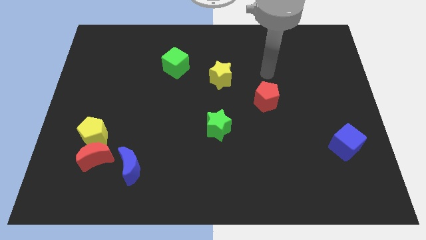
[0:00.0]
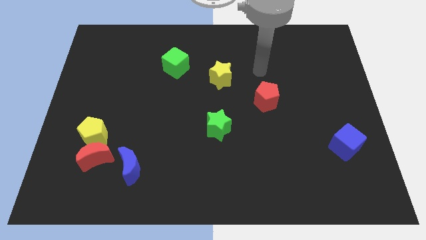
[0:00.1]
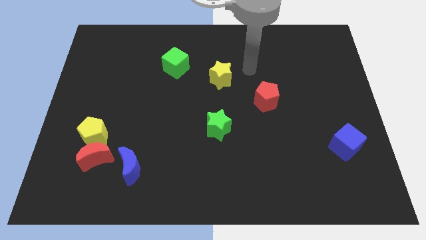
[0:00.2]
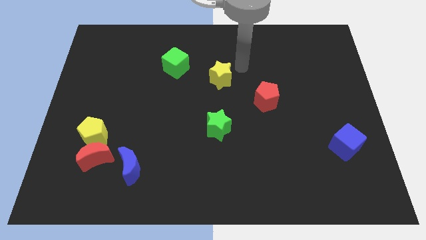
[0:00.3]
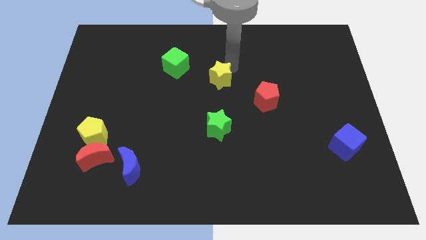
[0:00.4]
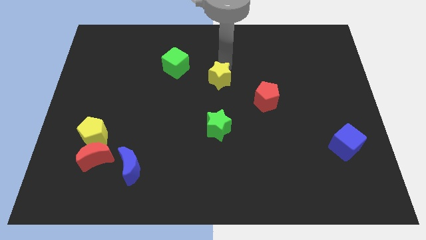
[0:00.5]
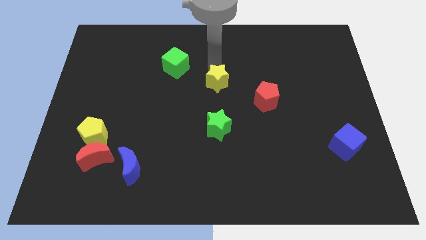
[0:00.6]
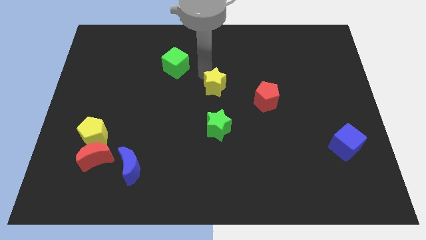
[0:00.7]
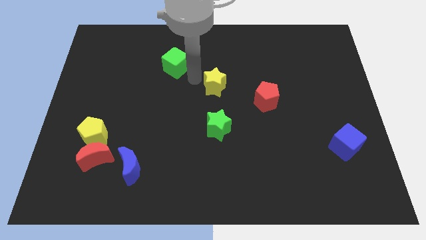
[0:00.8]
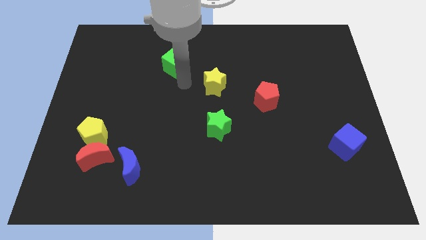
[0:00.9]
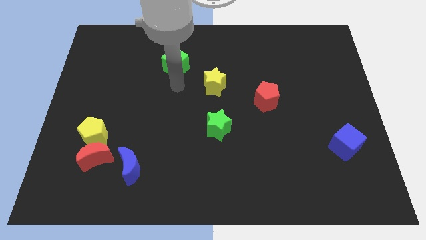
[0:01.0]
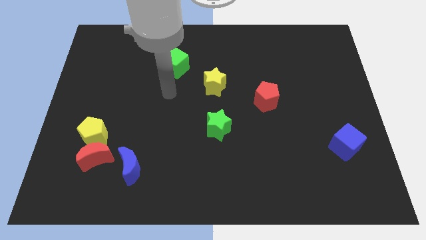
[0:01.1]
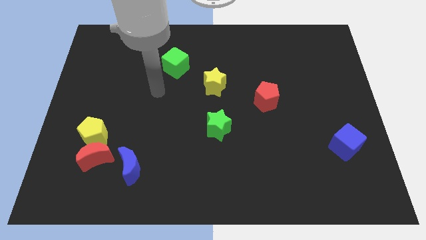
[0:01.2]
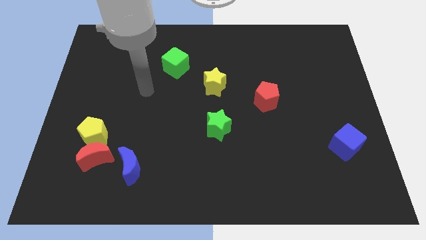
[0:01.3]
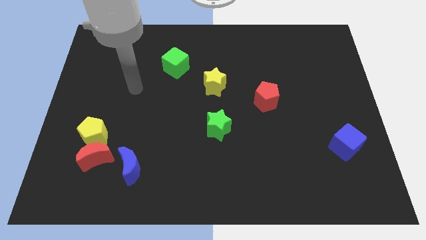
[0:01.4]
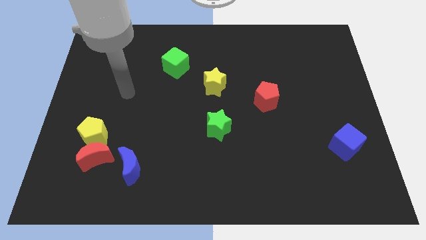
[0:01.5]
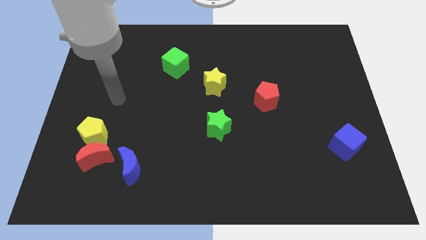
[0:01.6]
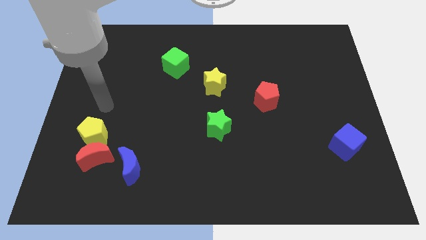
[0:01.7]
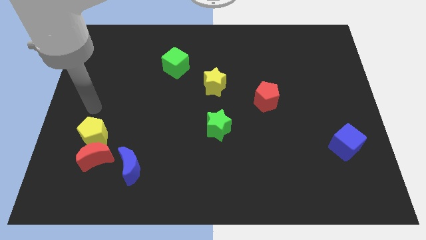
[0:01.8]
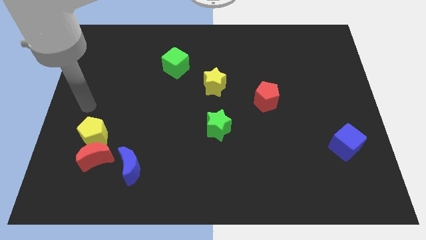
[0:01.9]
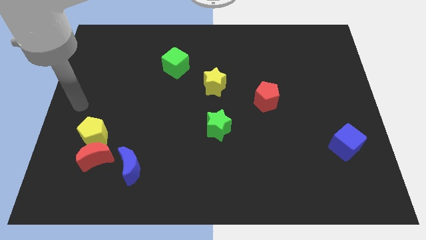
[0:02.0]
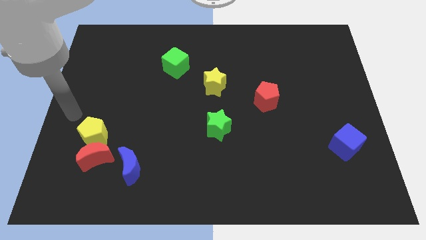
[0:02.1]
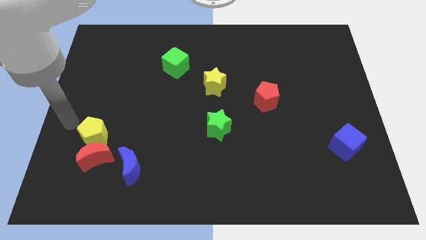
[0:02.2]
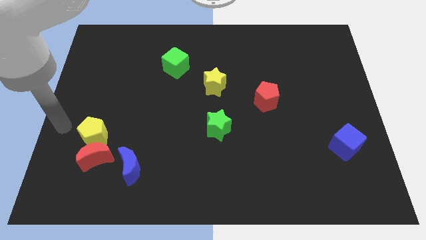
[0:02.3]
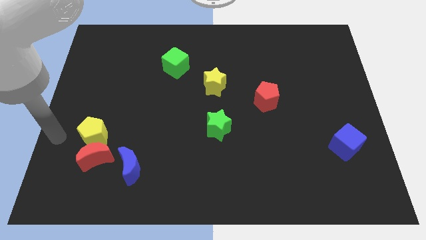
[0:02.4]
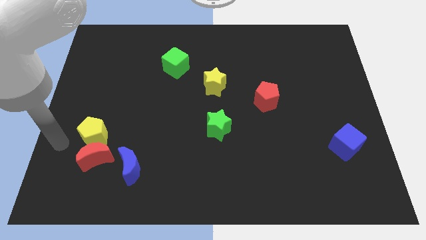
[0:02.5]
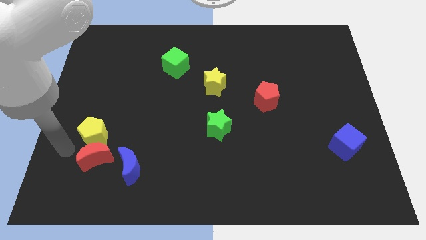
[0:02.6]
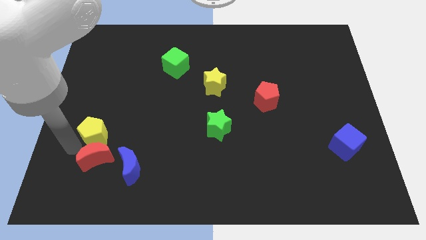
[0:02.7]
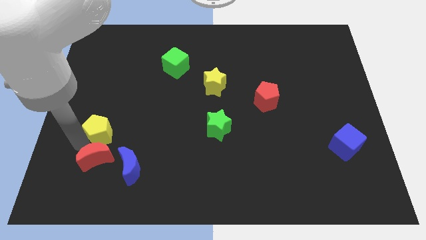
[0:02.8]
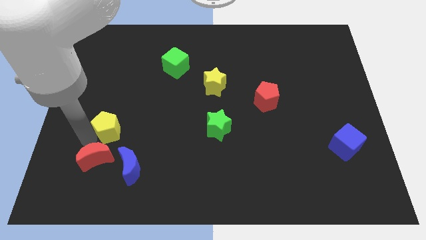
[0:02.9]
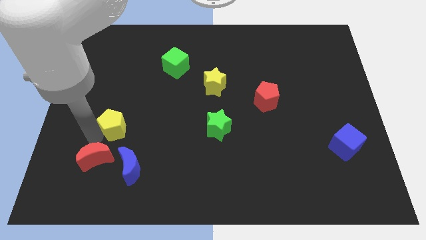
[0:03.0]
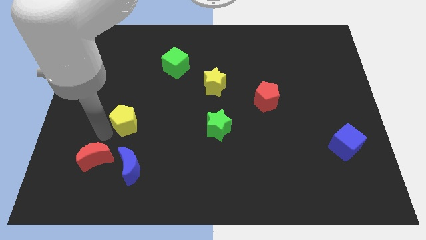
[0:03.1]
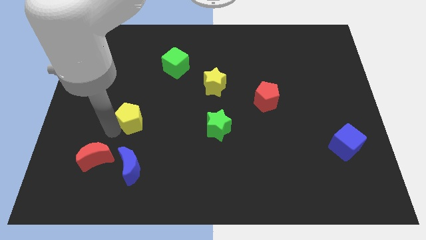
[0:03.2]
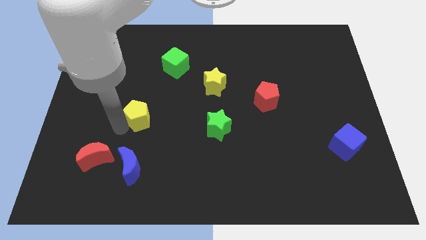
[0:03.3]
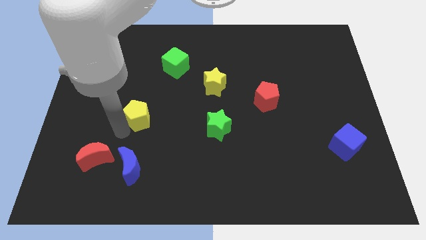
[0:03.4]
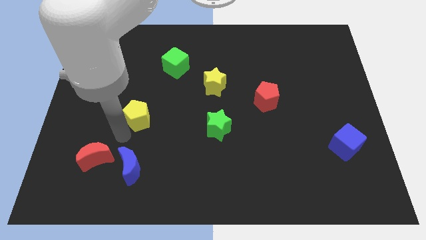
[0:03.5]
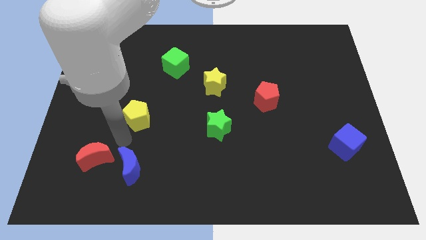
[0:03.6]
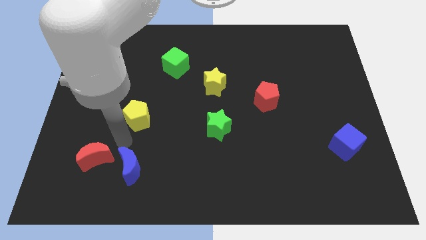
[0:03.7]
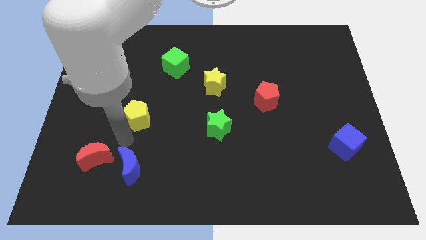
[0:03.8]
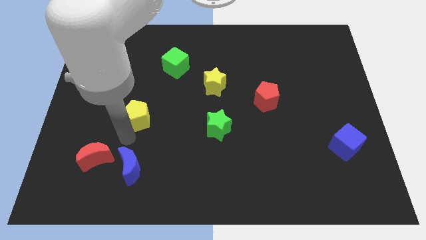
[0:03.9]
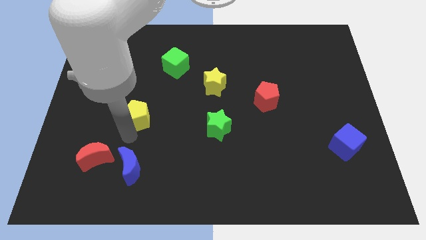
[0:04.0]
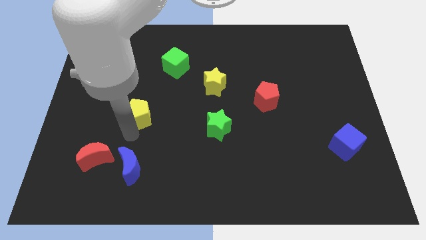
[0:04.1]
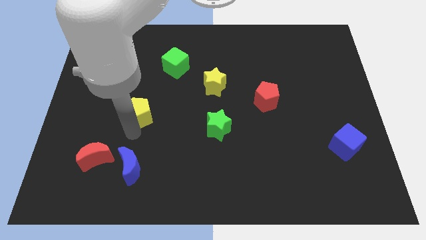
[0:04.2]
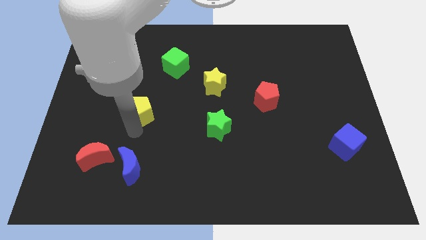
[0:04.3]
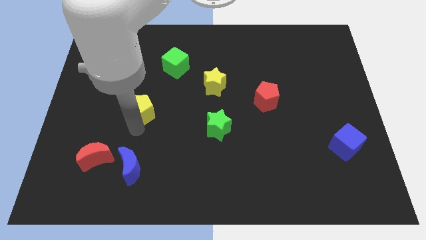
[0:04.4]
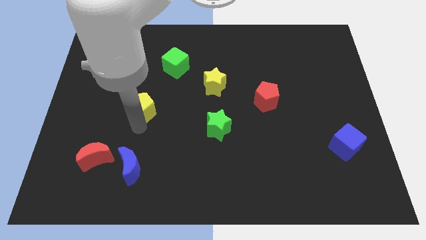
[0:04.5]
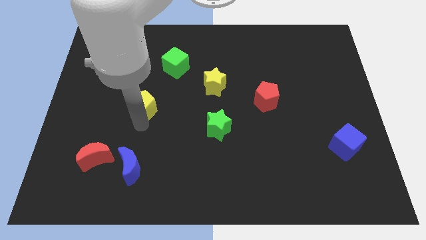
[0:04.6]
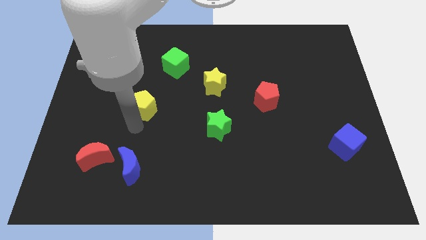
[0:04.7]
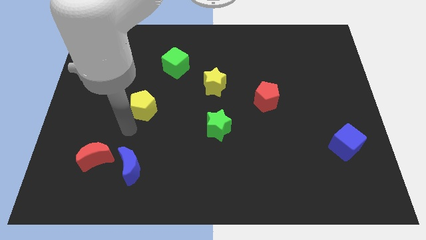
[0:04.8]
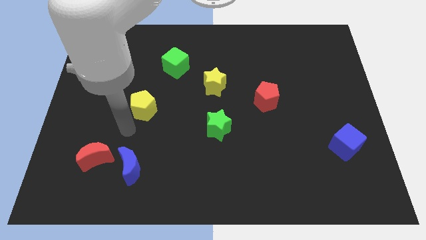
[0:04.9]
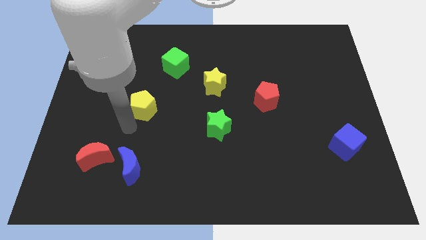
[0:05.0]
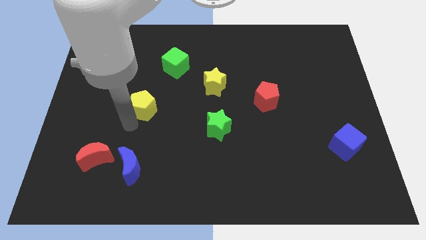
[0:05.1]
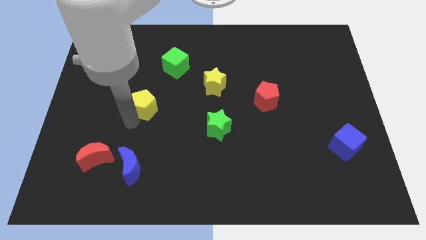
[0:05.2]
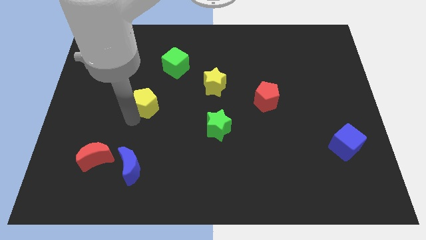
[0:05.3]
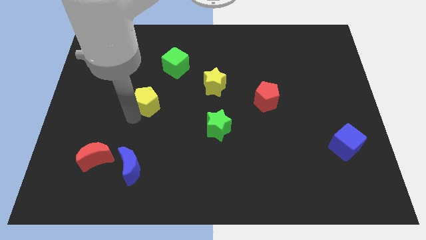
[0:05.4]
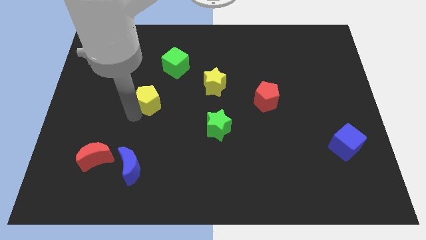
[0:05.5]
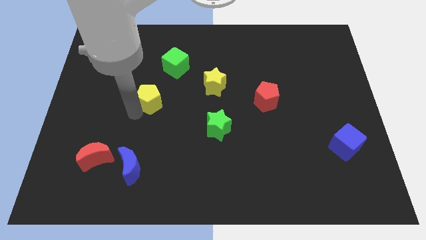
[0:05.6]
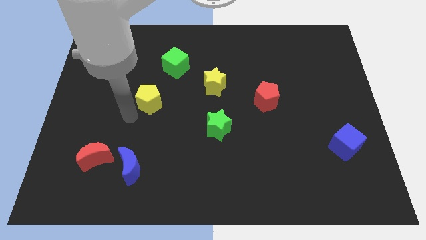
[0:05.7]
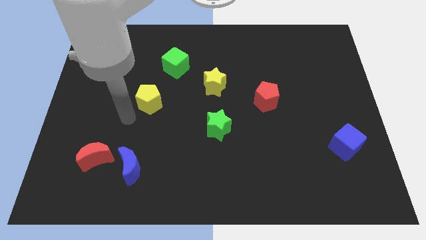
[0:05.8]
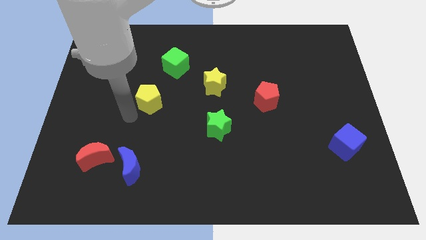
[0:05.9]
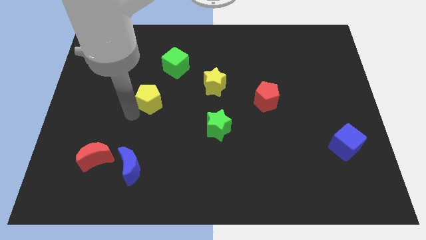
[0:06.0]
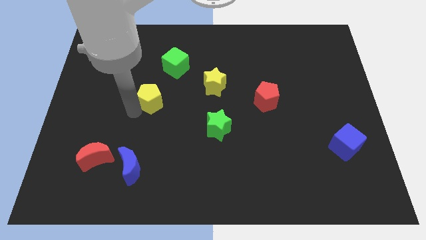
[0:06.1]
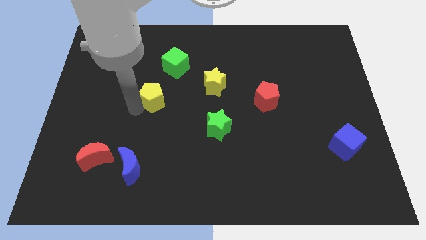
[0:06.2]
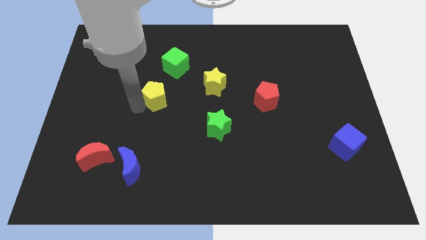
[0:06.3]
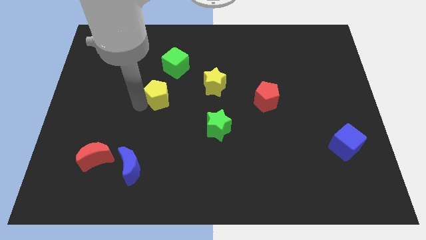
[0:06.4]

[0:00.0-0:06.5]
move the yellow pentagon just left of the yellow star

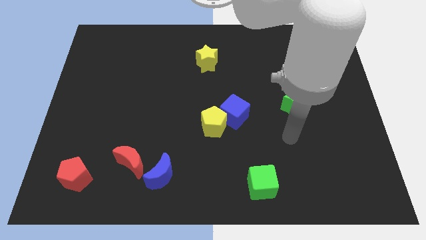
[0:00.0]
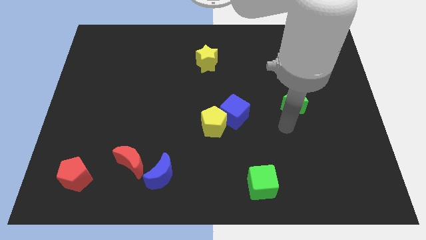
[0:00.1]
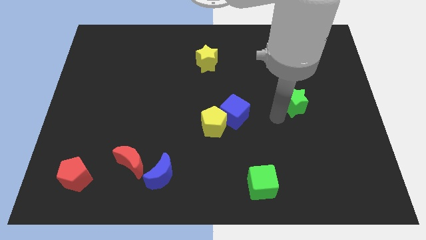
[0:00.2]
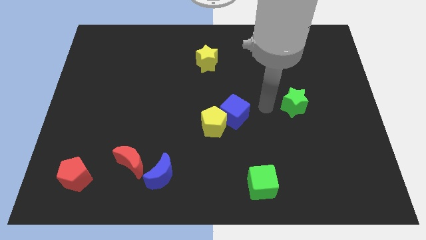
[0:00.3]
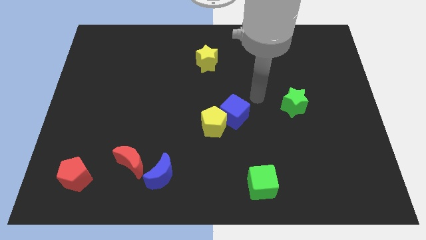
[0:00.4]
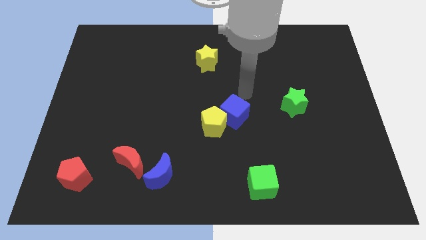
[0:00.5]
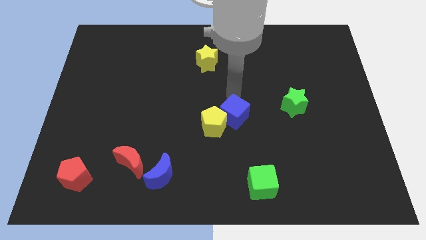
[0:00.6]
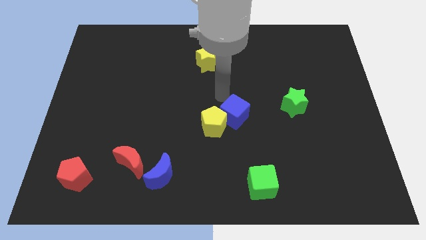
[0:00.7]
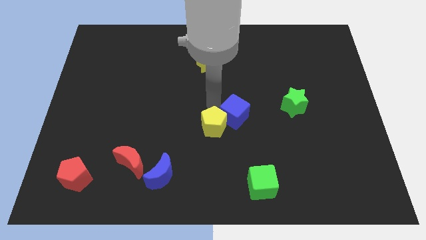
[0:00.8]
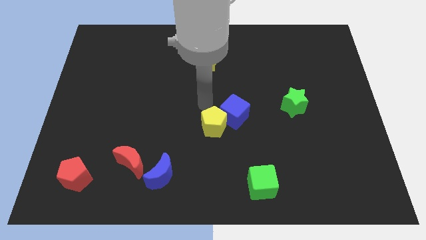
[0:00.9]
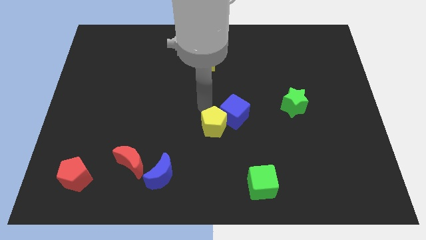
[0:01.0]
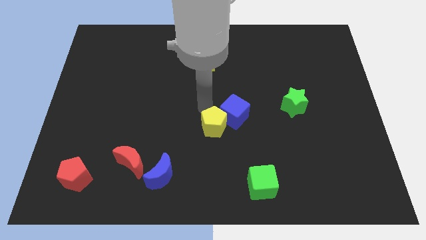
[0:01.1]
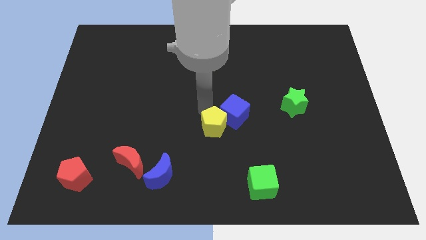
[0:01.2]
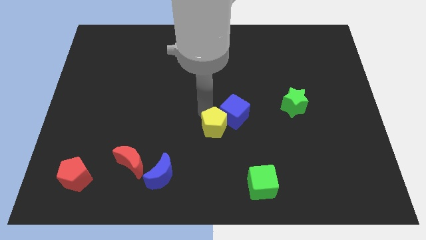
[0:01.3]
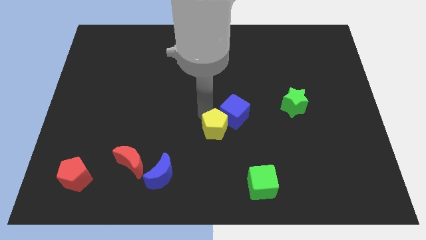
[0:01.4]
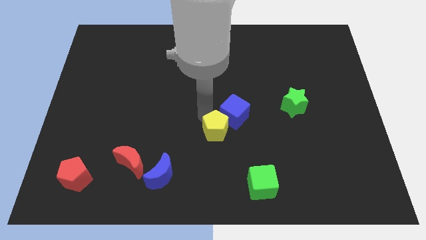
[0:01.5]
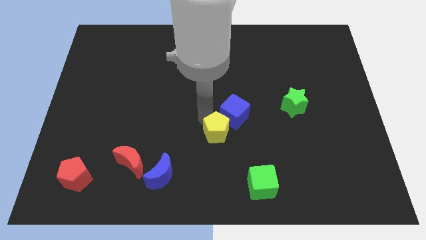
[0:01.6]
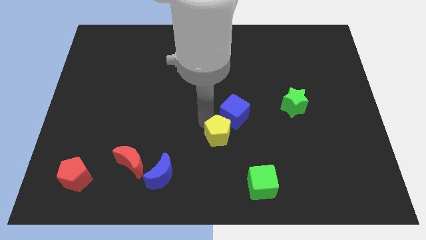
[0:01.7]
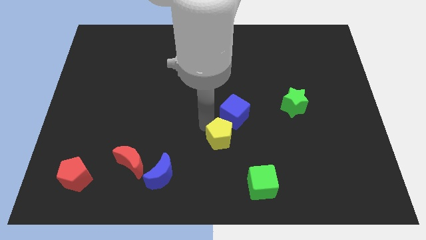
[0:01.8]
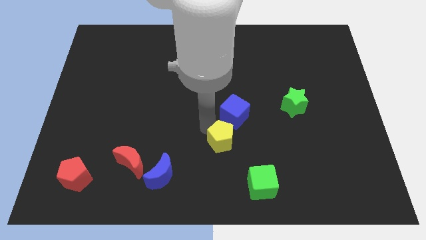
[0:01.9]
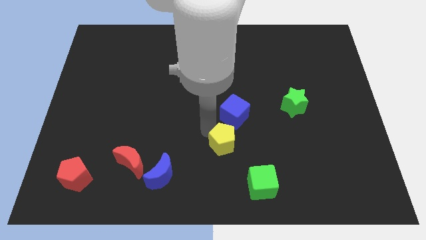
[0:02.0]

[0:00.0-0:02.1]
push the yellow pentagon diagonally up and to the left of the green cube
